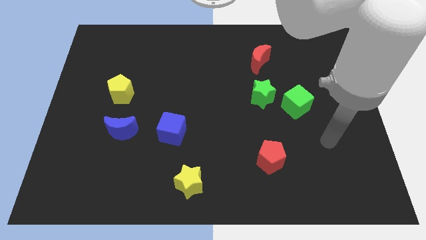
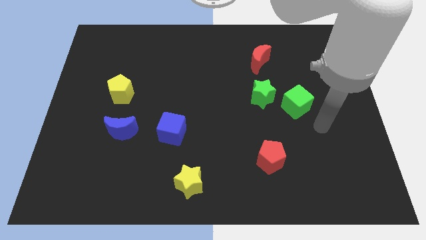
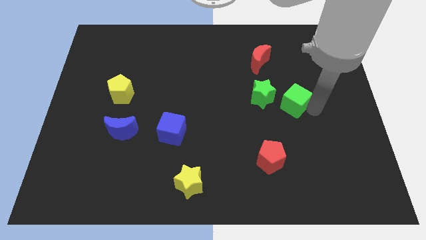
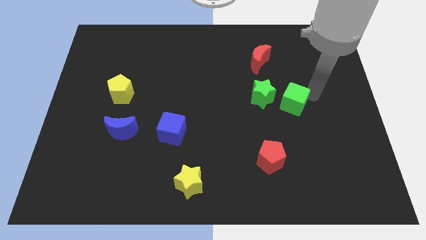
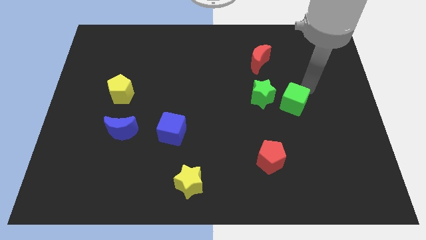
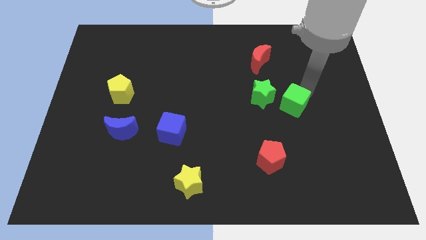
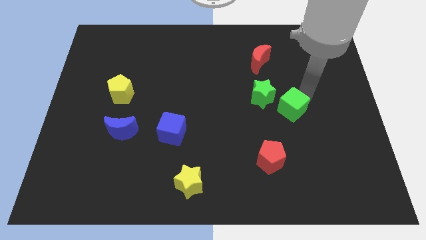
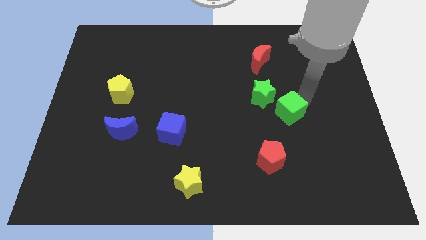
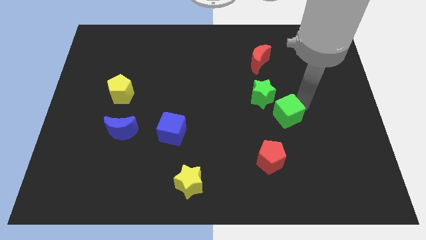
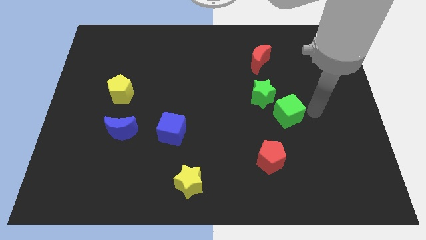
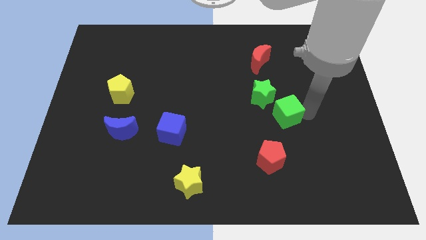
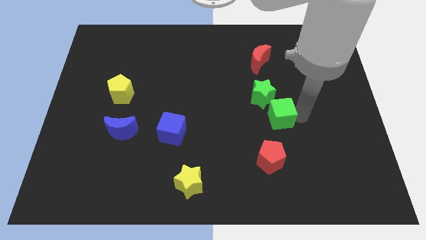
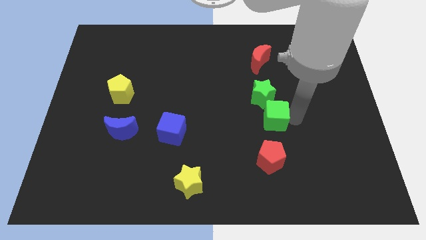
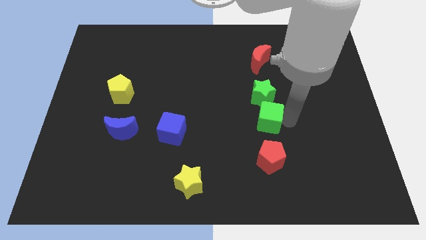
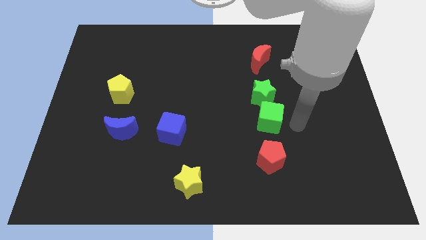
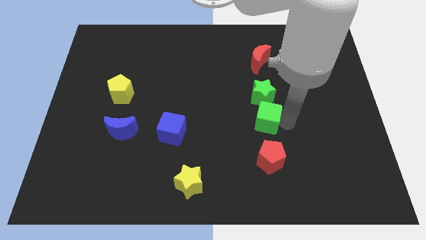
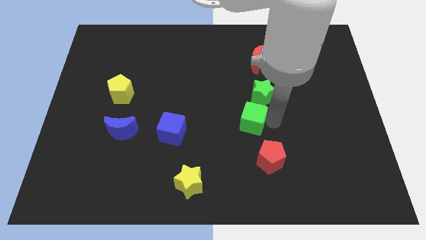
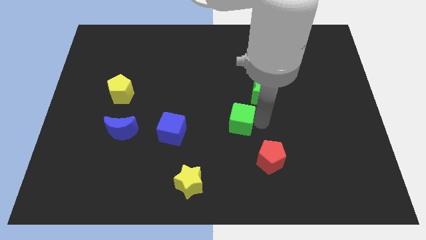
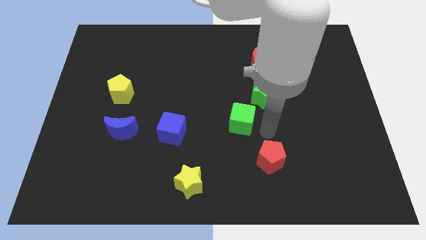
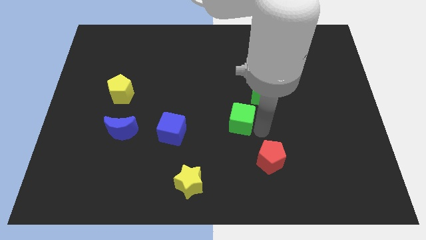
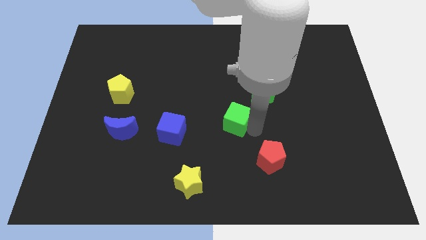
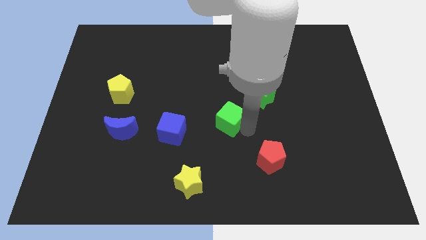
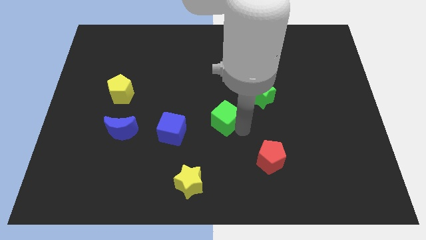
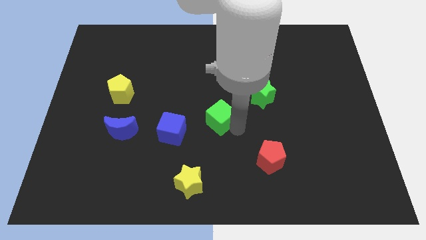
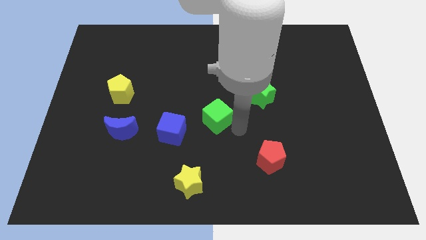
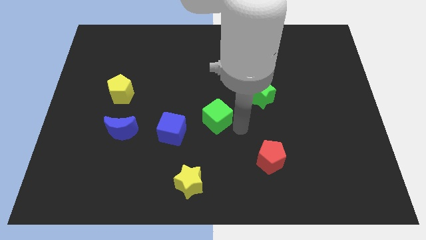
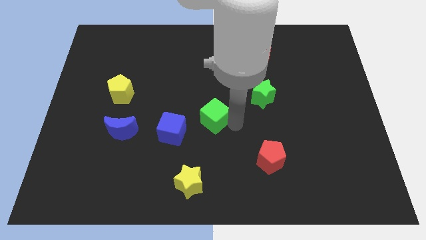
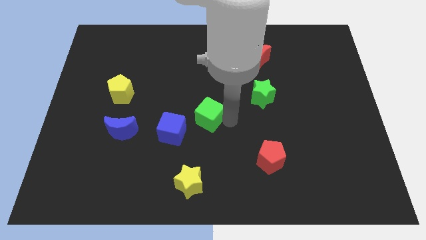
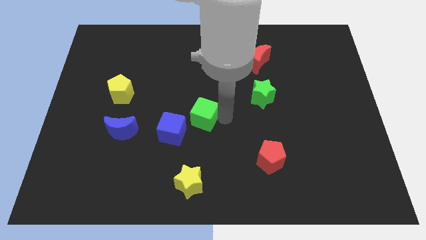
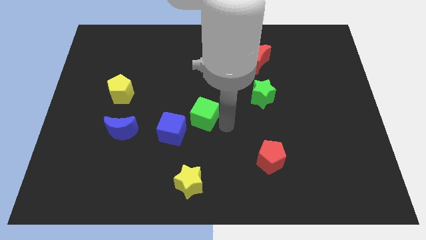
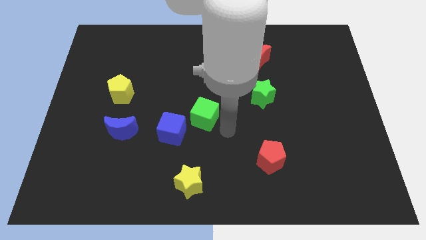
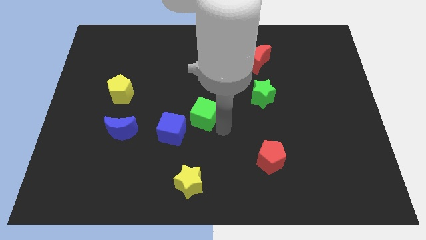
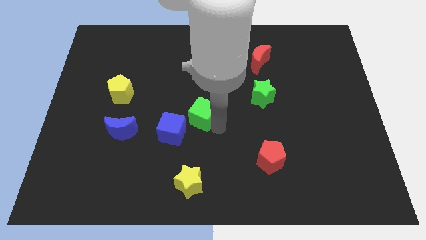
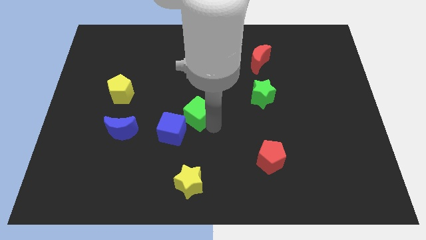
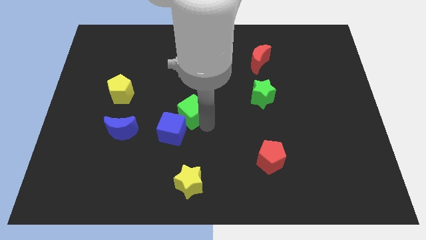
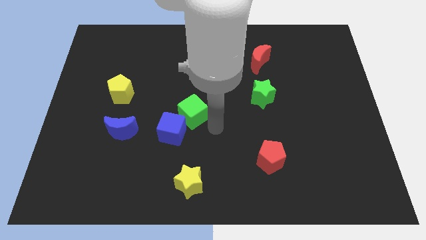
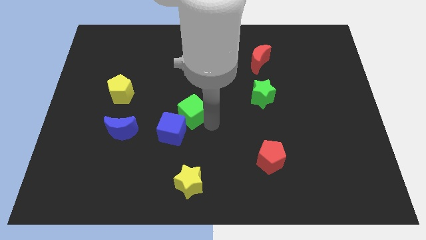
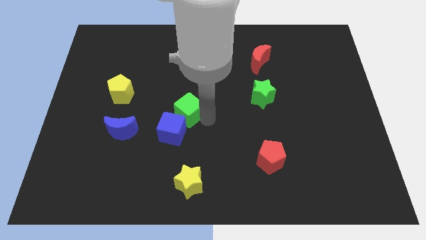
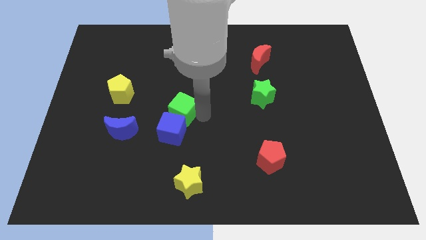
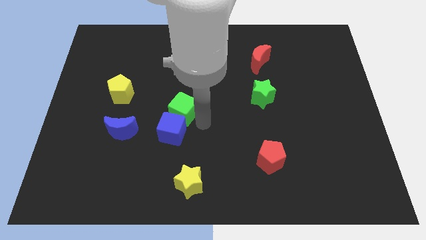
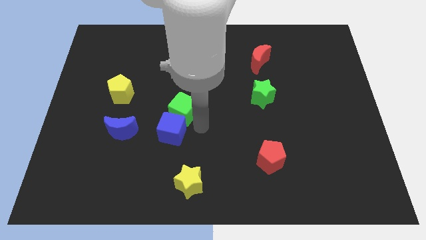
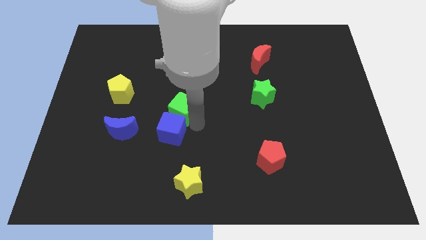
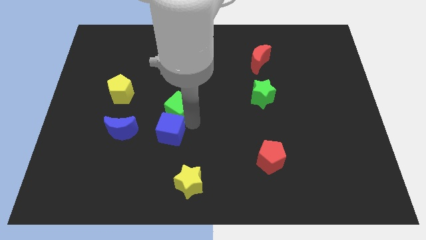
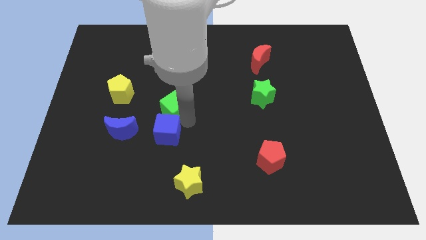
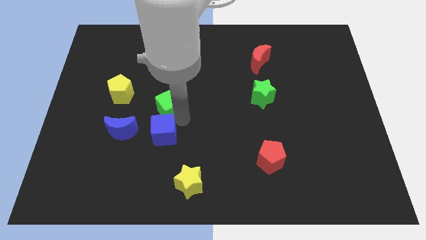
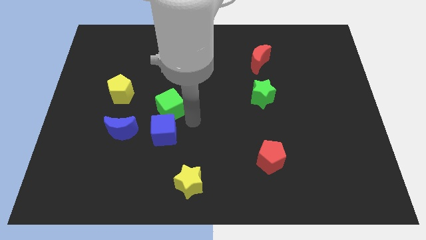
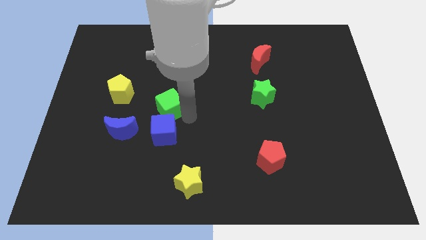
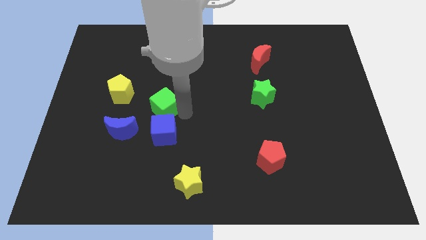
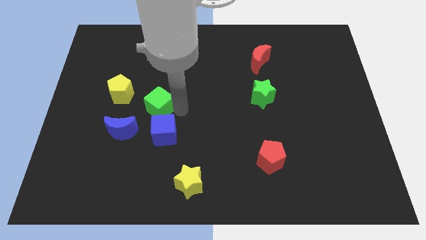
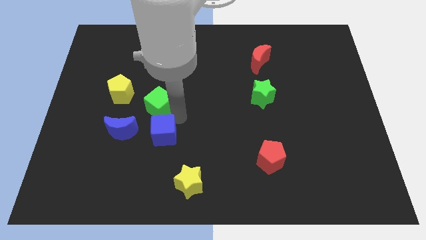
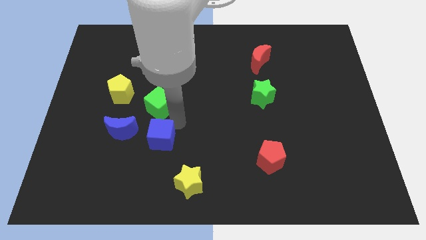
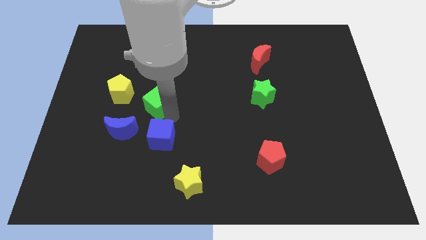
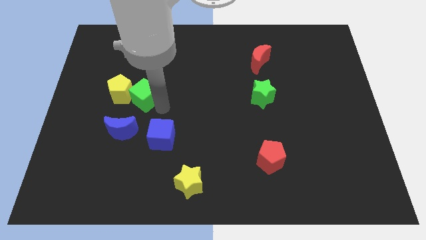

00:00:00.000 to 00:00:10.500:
put the green cube close to the yellow pentagon

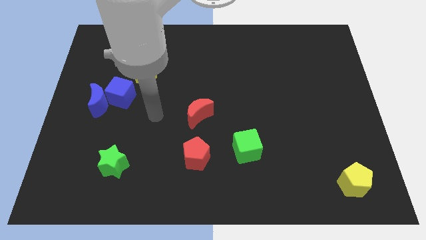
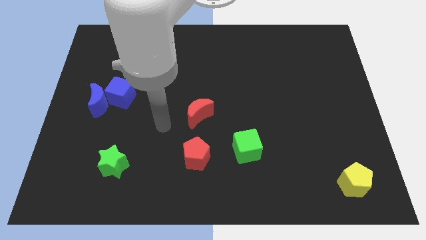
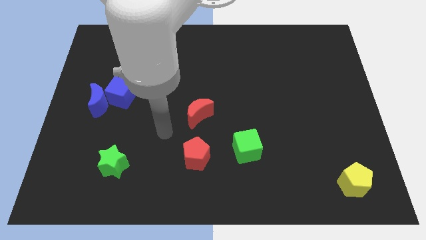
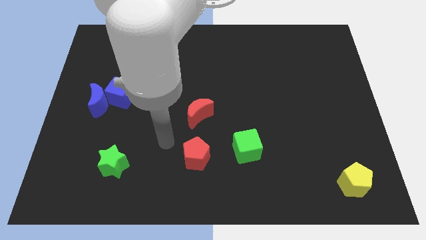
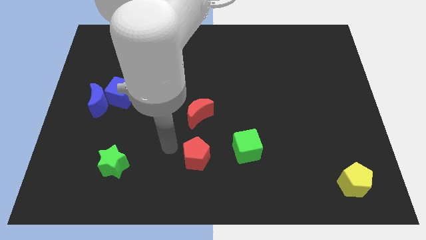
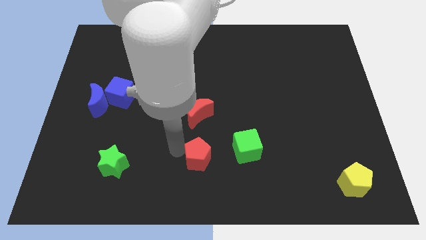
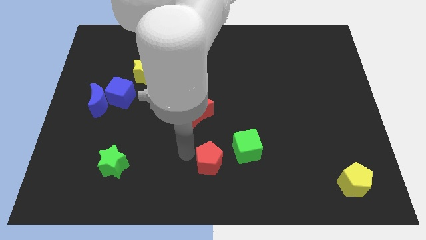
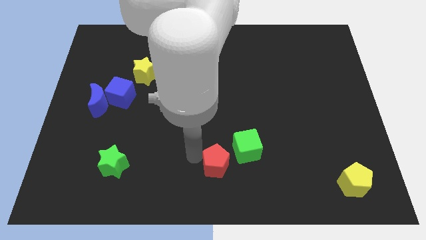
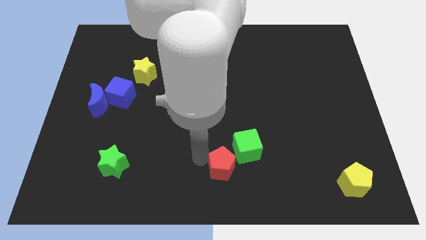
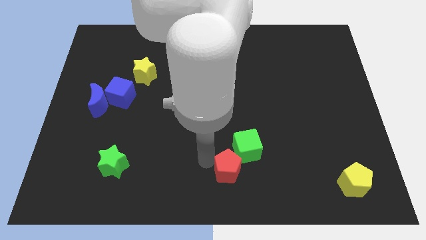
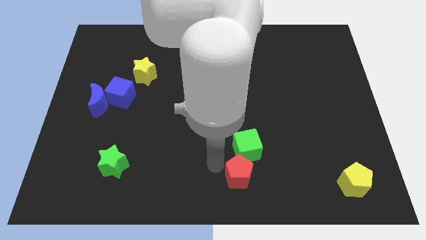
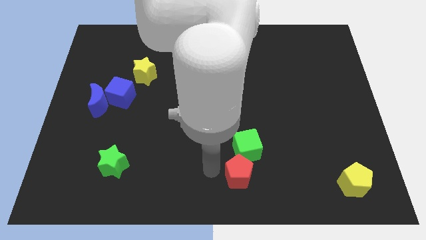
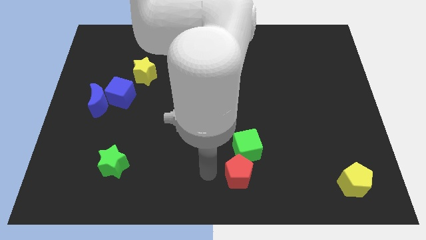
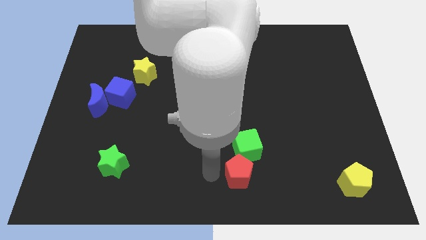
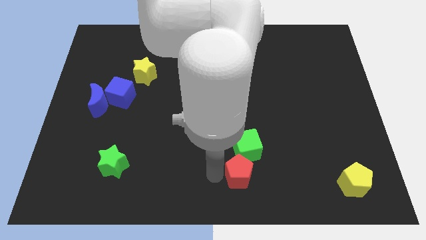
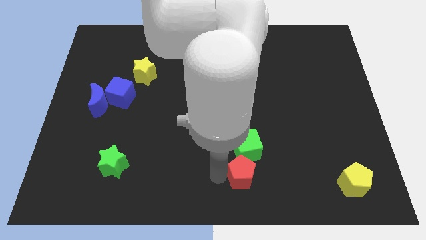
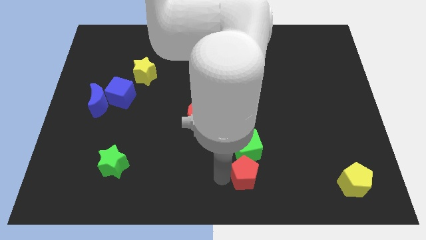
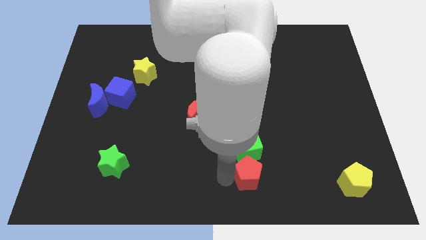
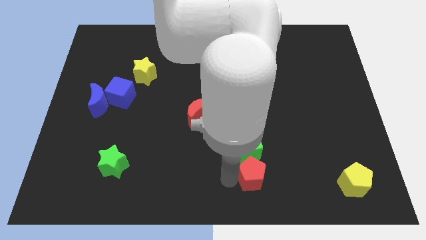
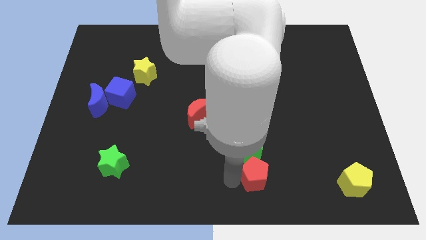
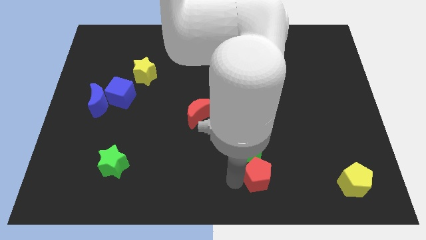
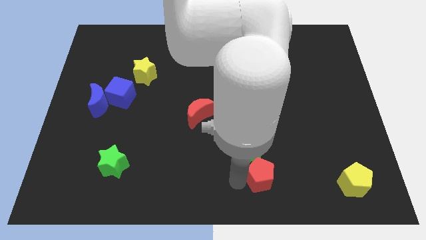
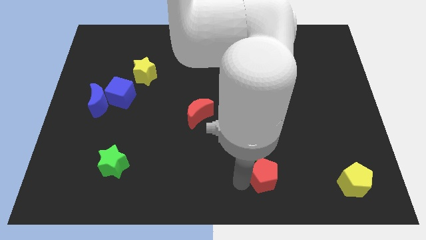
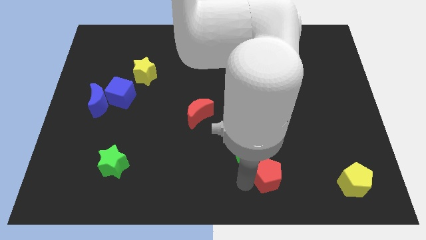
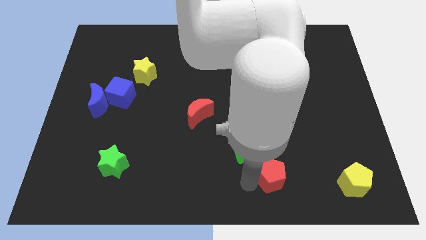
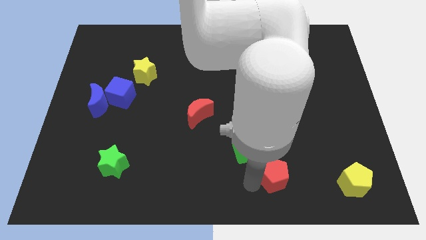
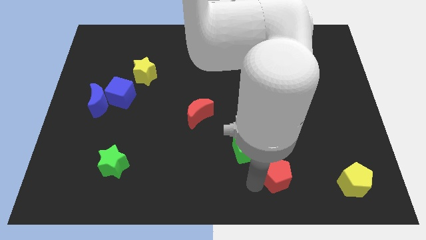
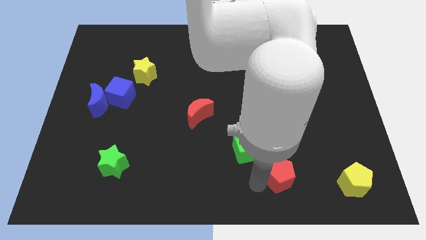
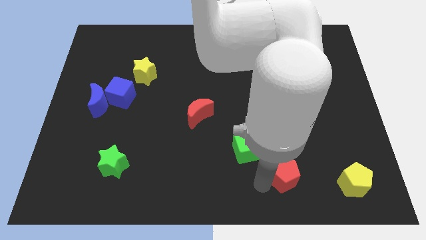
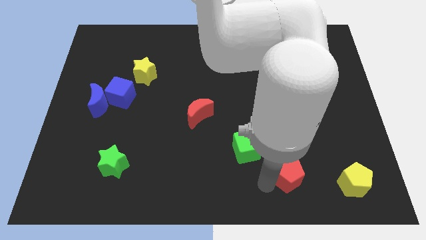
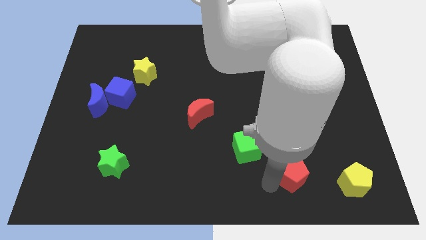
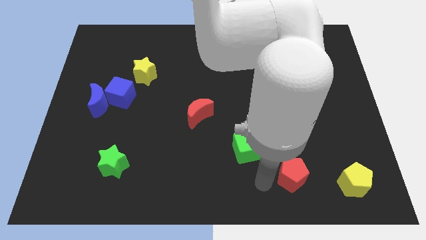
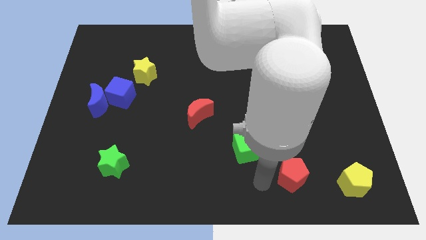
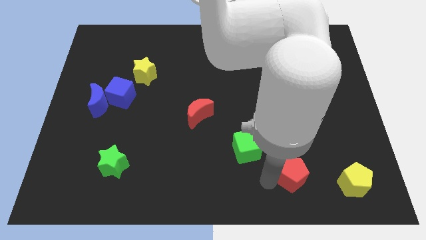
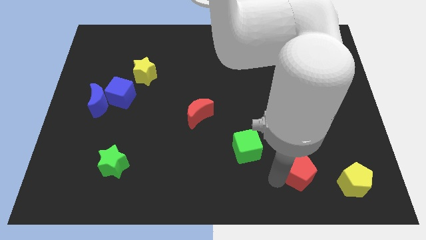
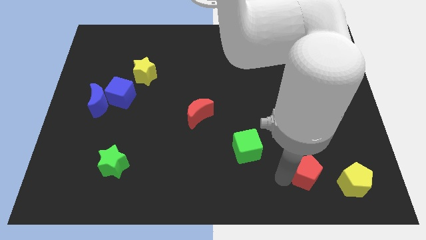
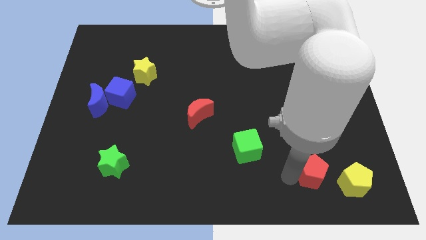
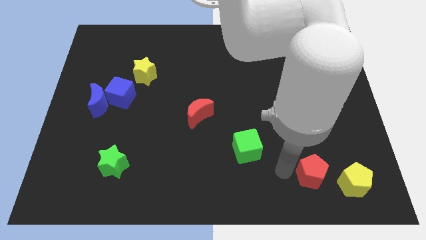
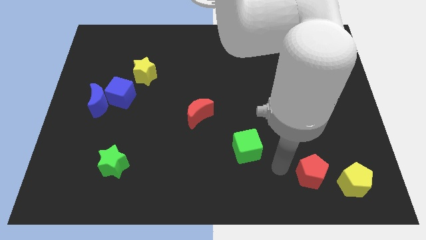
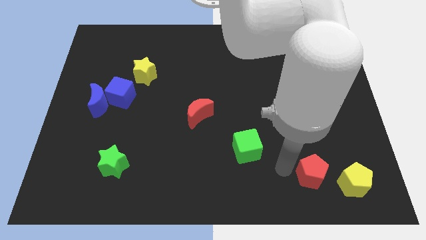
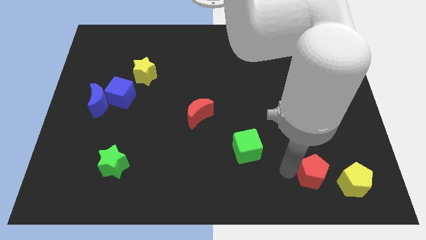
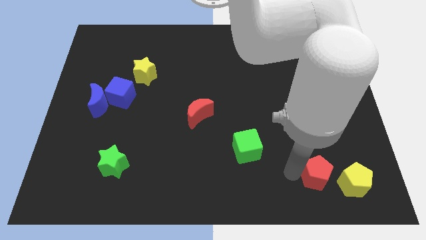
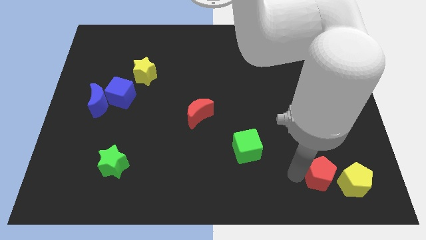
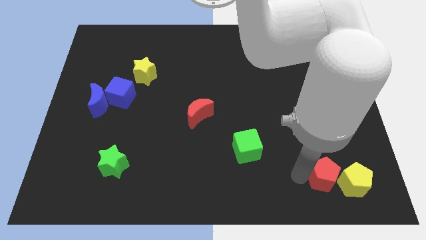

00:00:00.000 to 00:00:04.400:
move the red pentagon to the yellow pentagon
